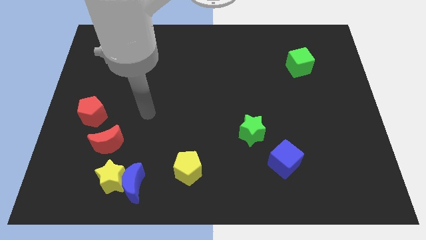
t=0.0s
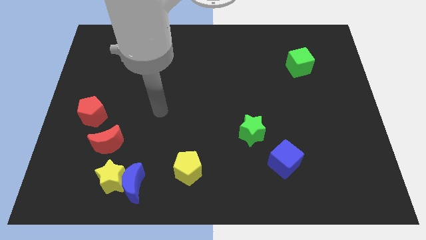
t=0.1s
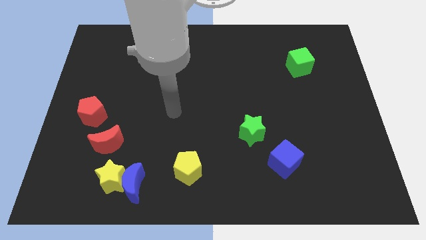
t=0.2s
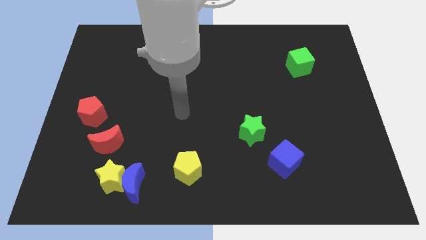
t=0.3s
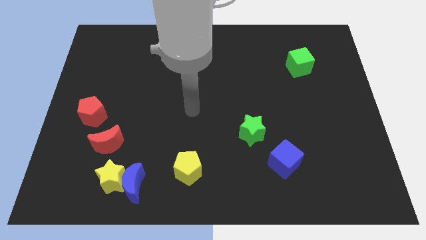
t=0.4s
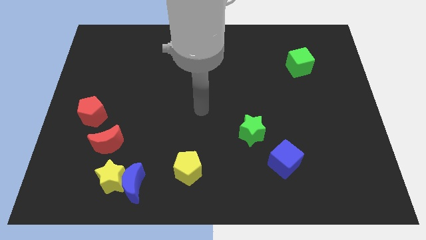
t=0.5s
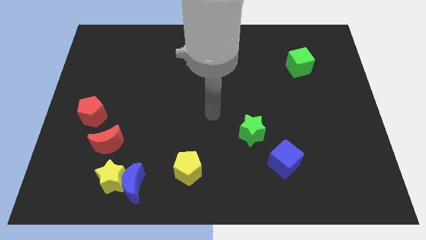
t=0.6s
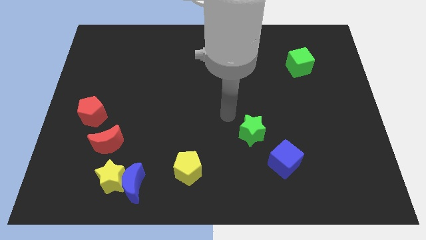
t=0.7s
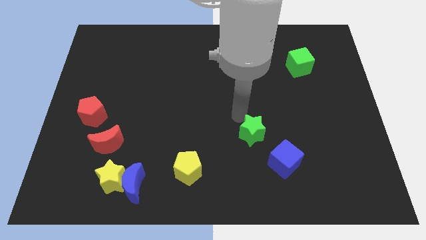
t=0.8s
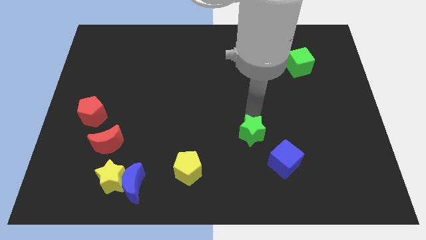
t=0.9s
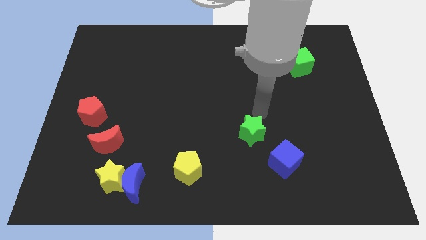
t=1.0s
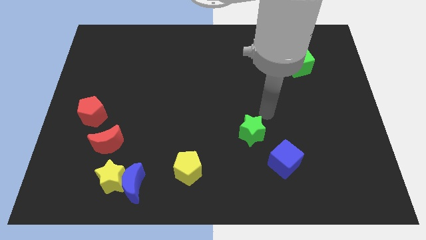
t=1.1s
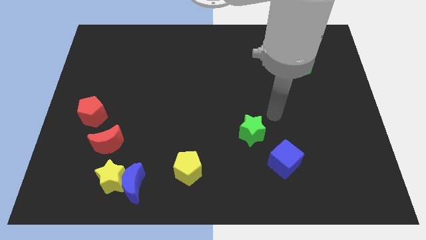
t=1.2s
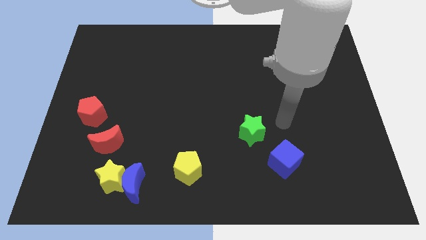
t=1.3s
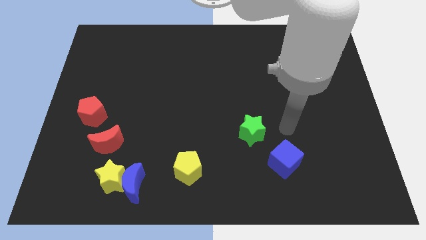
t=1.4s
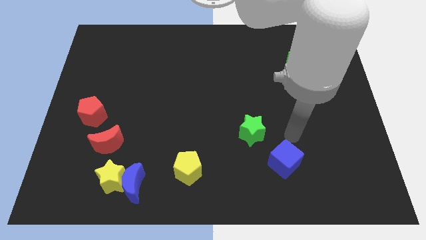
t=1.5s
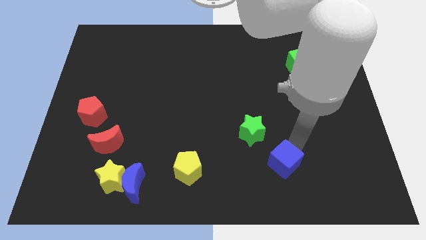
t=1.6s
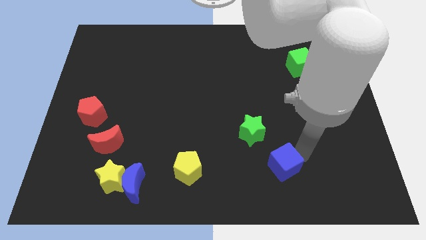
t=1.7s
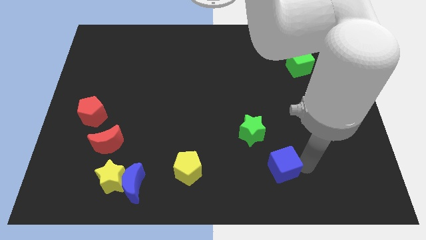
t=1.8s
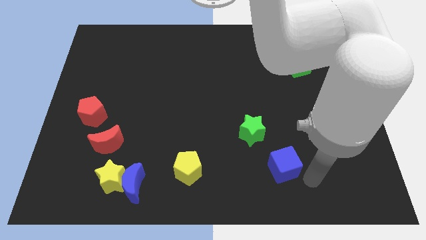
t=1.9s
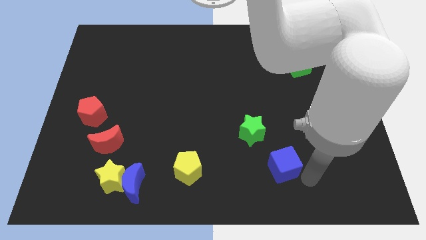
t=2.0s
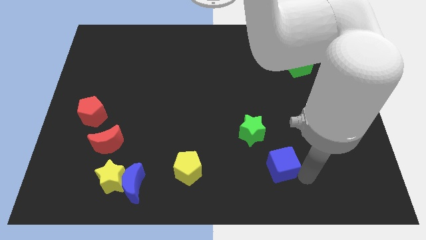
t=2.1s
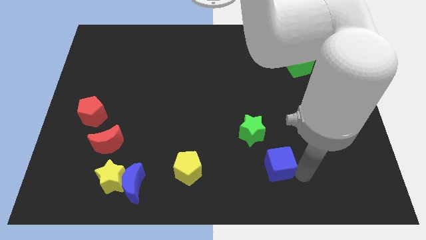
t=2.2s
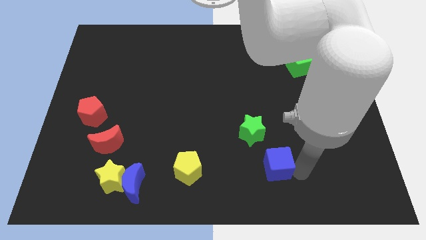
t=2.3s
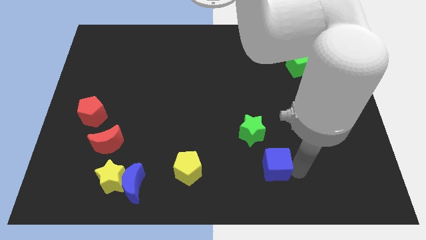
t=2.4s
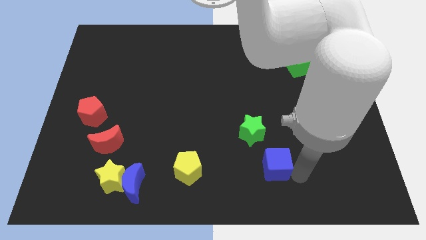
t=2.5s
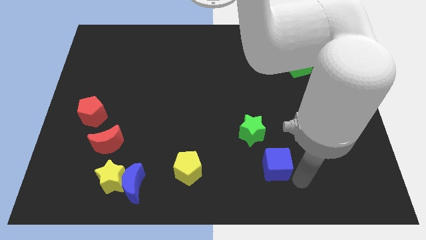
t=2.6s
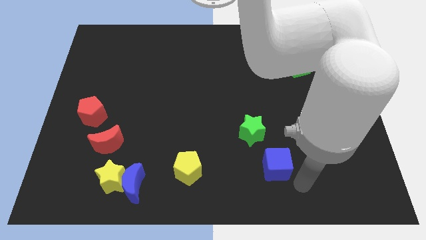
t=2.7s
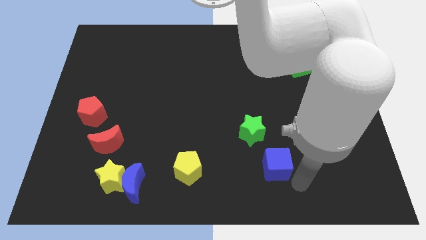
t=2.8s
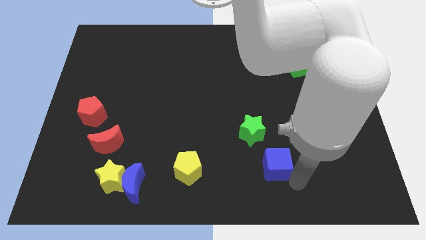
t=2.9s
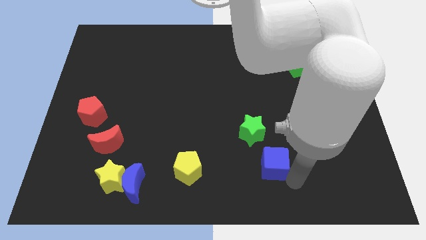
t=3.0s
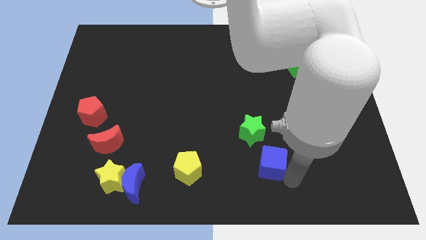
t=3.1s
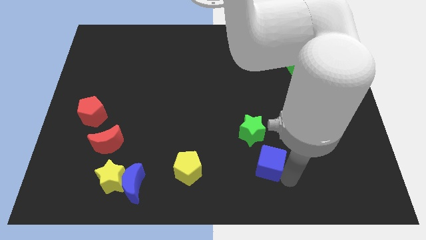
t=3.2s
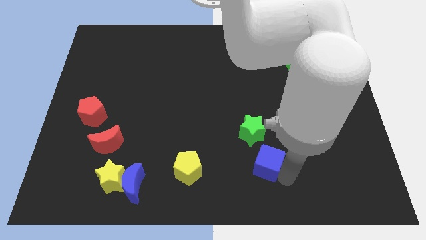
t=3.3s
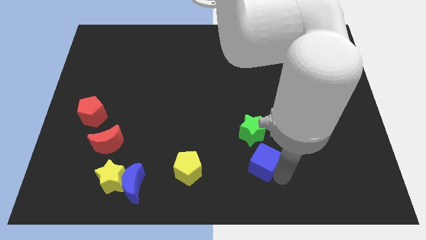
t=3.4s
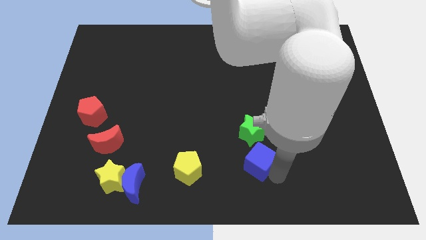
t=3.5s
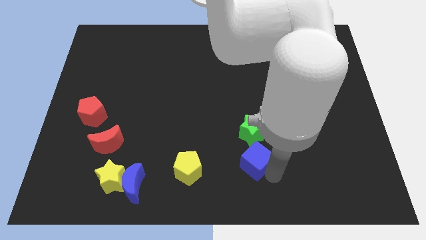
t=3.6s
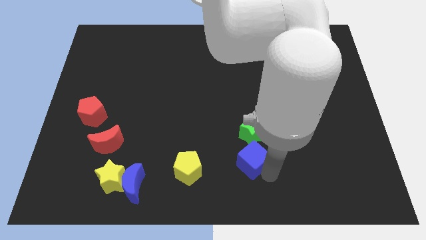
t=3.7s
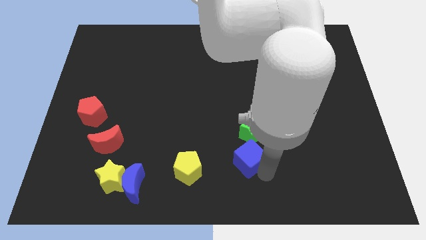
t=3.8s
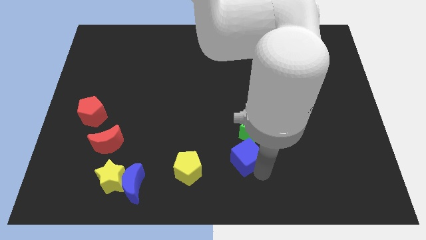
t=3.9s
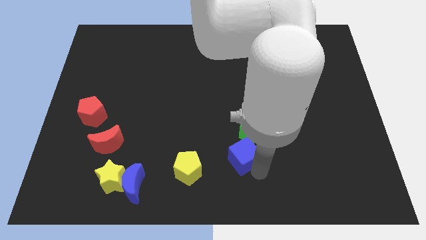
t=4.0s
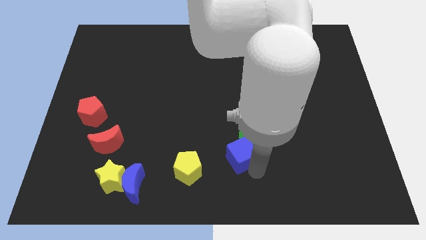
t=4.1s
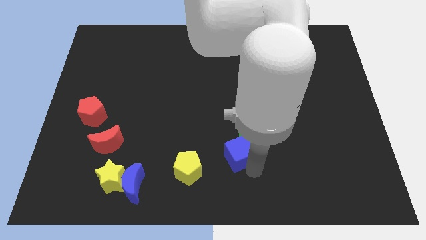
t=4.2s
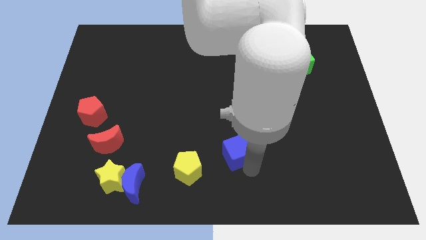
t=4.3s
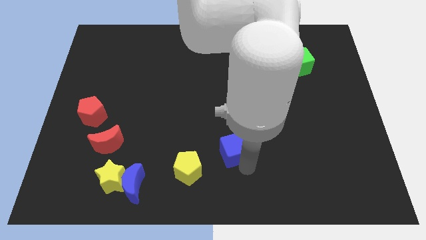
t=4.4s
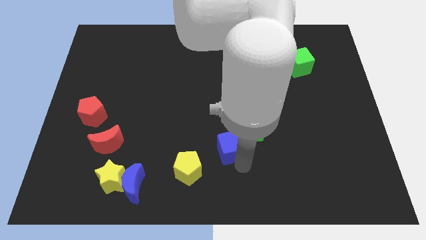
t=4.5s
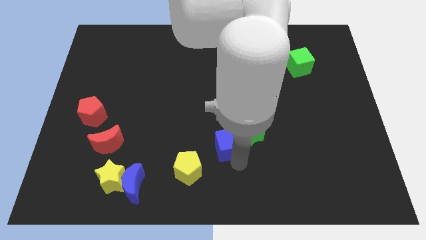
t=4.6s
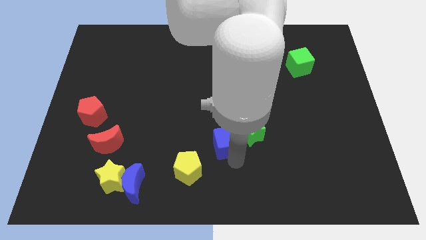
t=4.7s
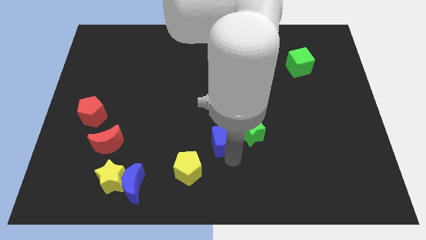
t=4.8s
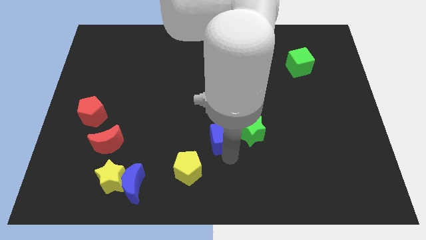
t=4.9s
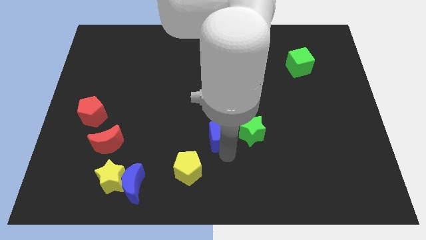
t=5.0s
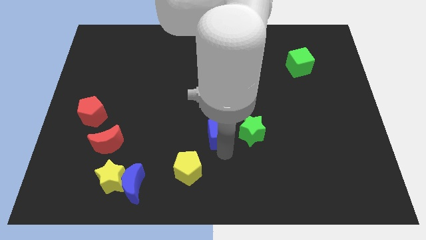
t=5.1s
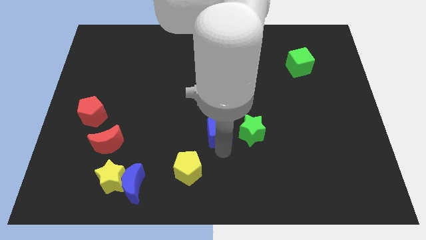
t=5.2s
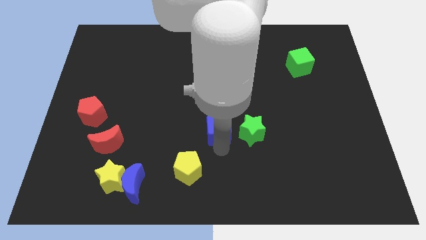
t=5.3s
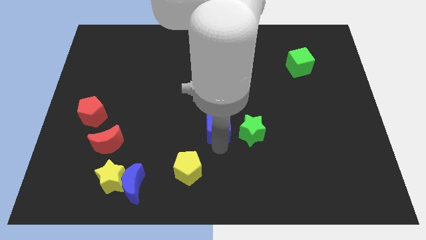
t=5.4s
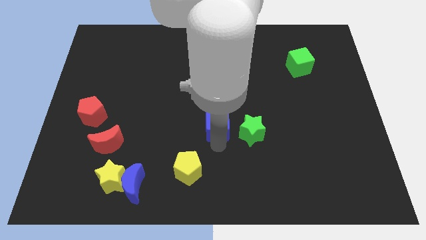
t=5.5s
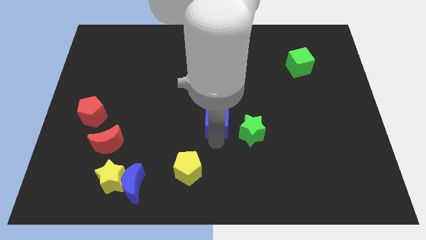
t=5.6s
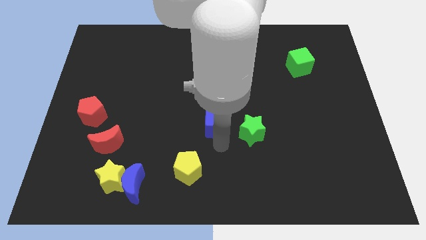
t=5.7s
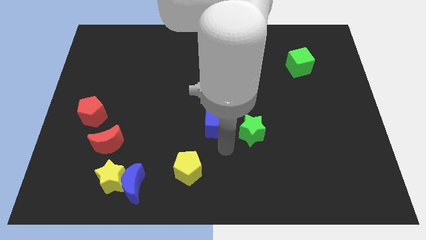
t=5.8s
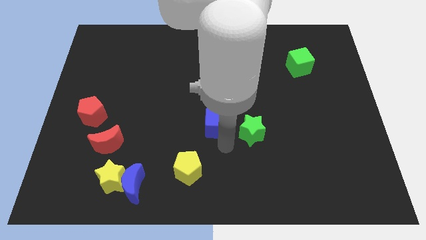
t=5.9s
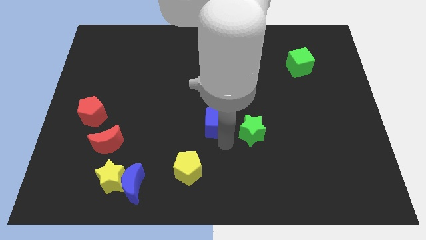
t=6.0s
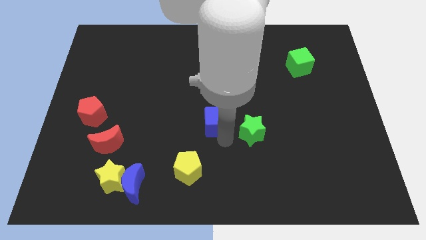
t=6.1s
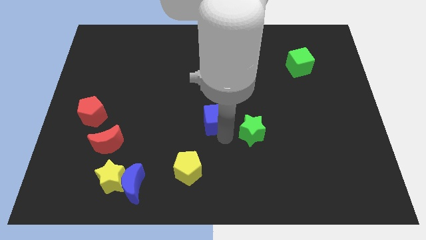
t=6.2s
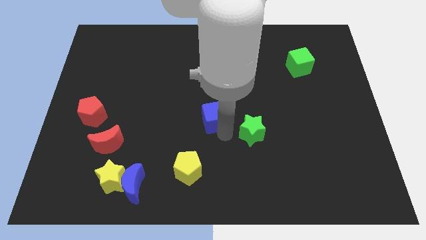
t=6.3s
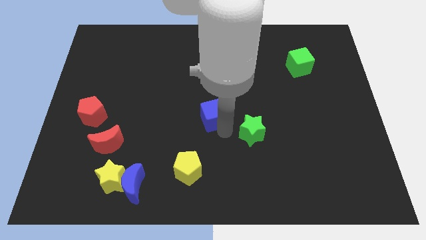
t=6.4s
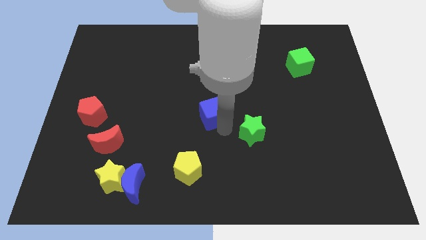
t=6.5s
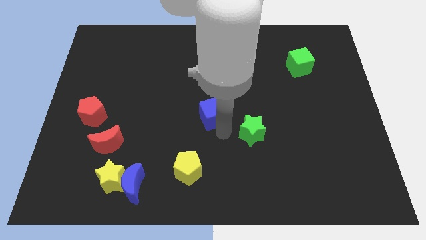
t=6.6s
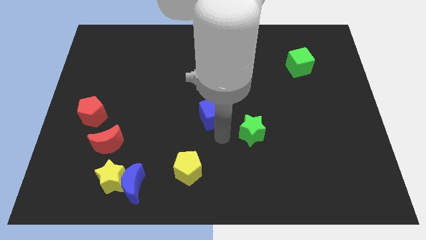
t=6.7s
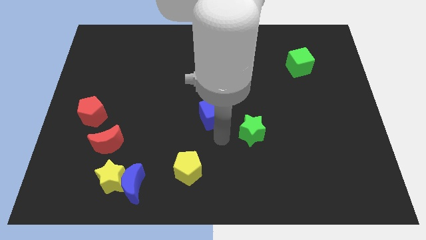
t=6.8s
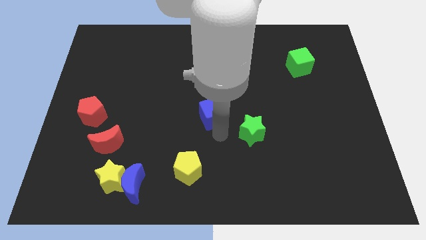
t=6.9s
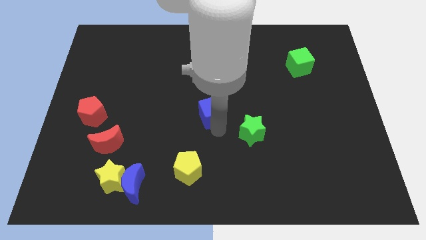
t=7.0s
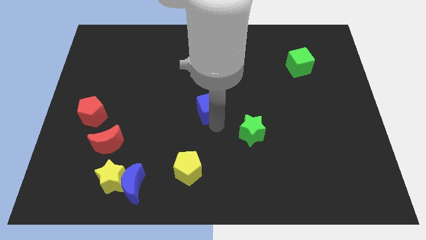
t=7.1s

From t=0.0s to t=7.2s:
slide the blue cube up and to the left

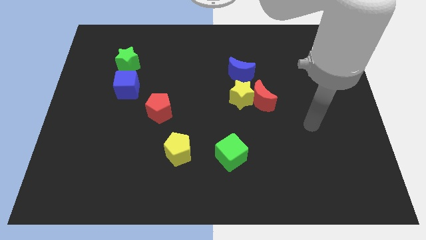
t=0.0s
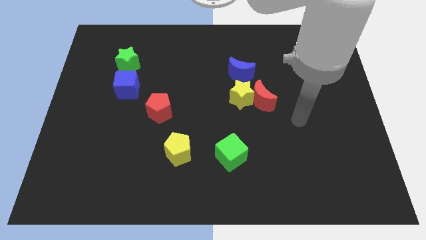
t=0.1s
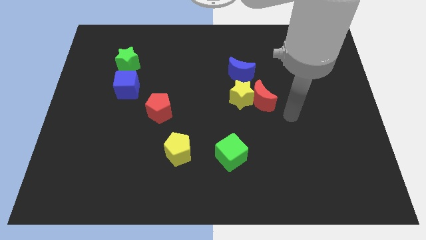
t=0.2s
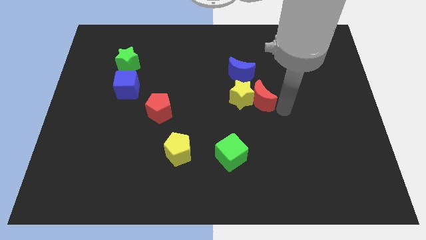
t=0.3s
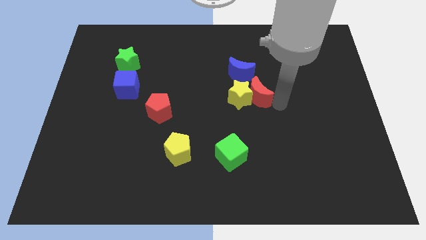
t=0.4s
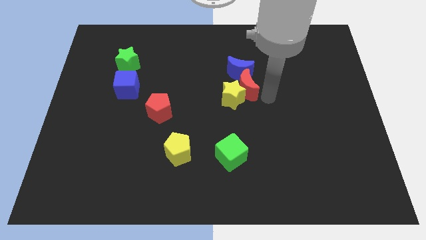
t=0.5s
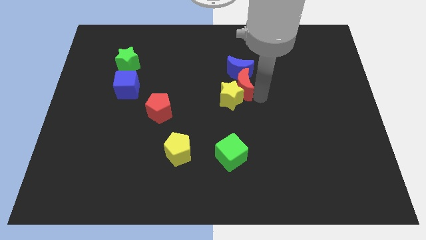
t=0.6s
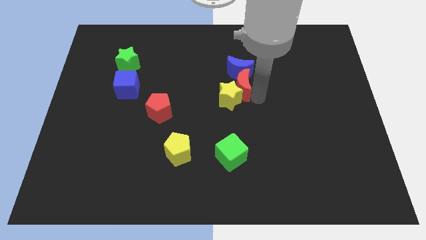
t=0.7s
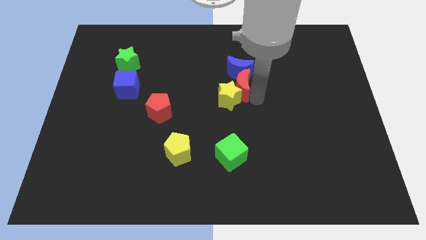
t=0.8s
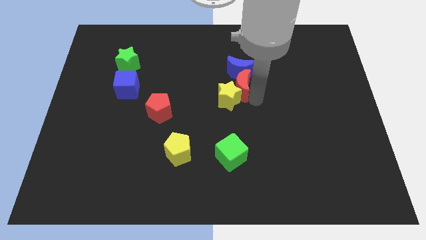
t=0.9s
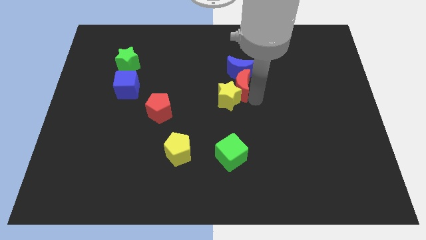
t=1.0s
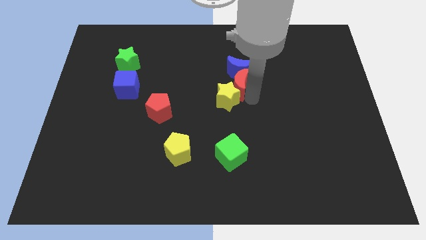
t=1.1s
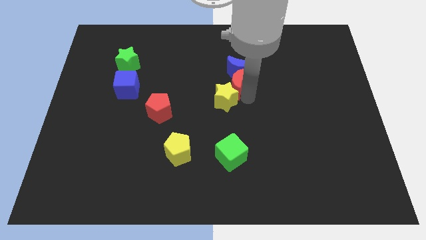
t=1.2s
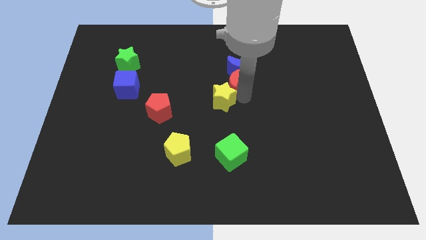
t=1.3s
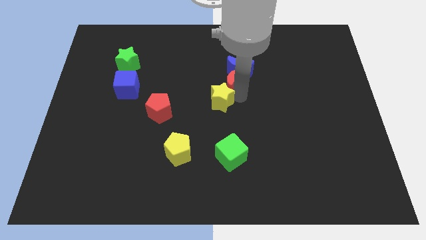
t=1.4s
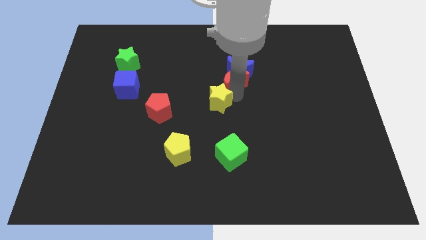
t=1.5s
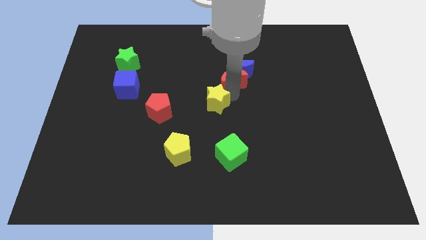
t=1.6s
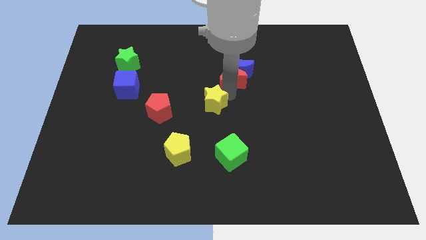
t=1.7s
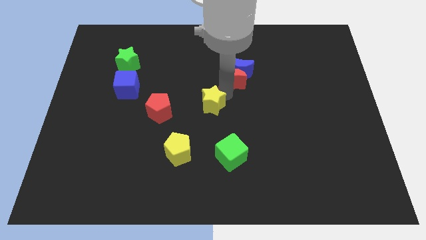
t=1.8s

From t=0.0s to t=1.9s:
push the yellow star left somewhat
